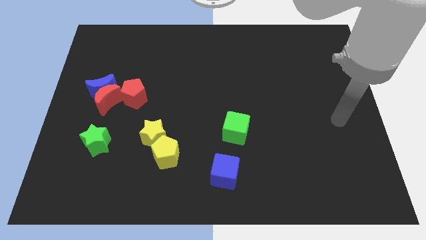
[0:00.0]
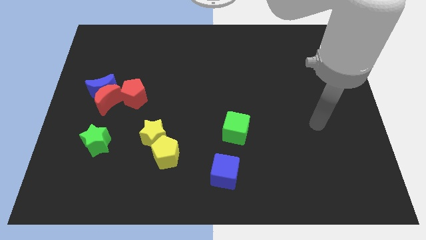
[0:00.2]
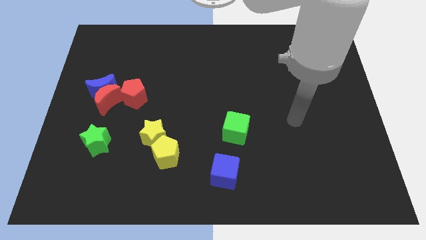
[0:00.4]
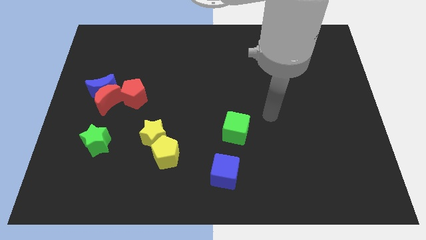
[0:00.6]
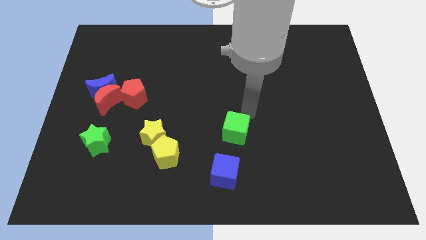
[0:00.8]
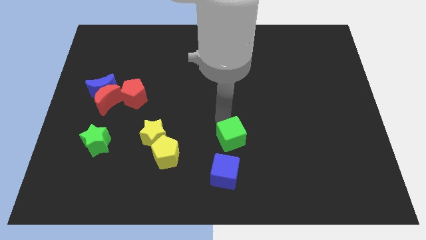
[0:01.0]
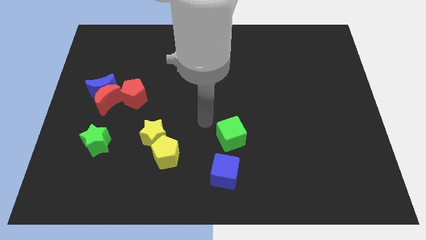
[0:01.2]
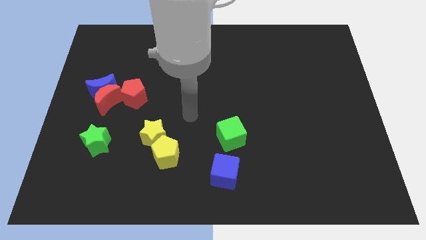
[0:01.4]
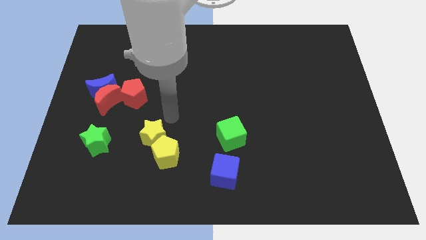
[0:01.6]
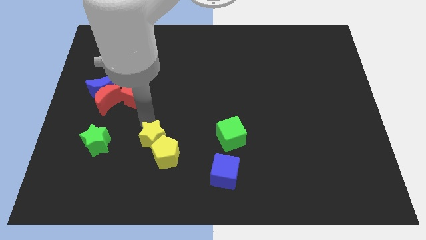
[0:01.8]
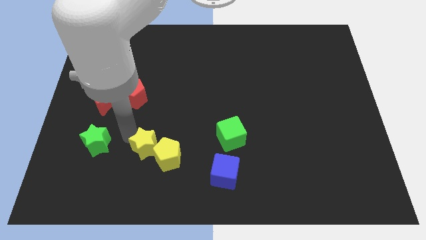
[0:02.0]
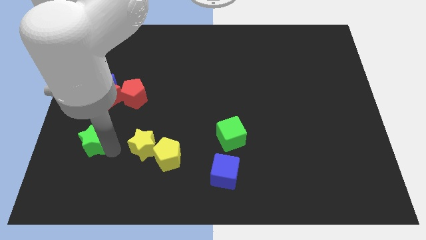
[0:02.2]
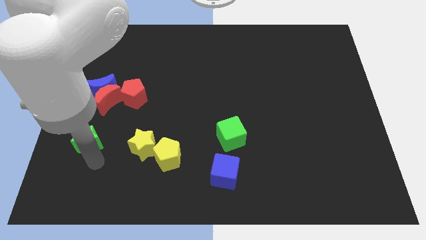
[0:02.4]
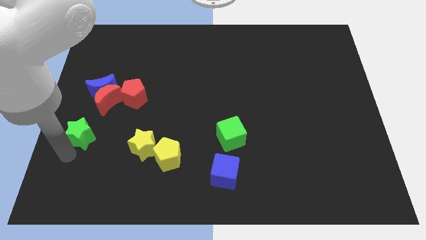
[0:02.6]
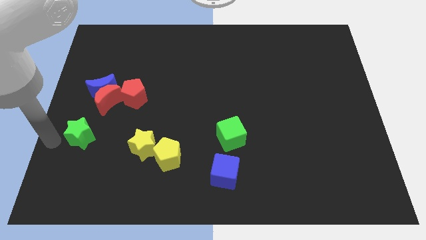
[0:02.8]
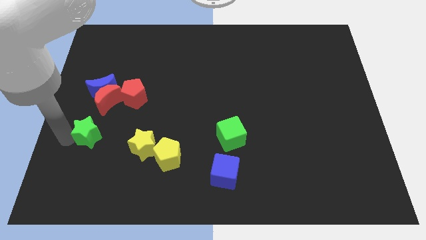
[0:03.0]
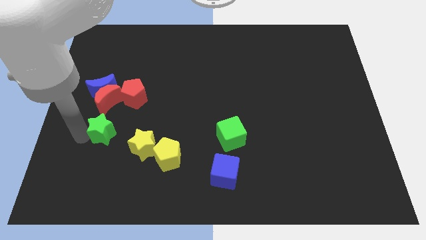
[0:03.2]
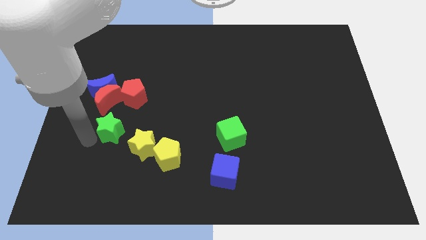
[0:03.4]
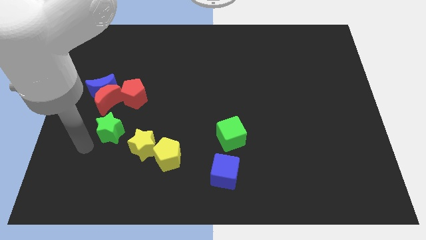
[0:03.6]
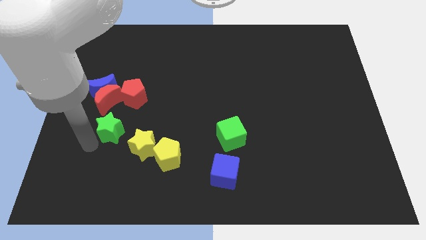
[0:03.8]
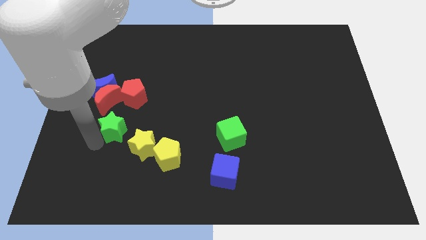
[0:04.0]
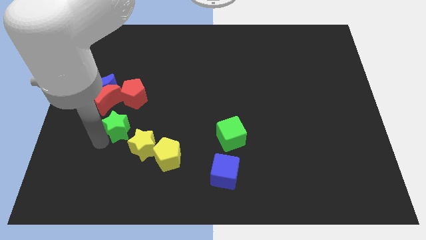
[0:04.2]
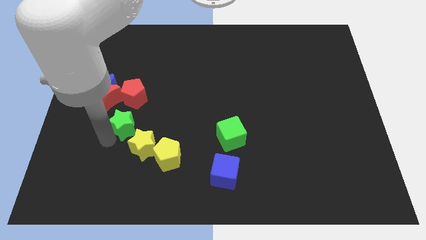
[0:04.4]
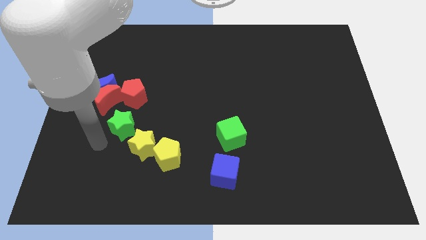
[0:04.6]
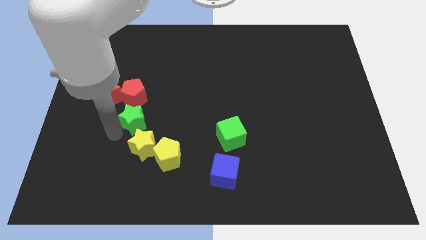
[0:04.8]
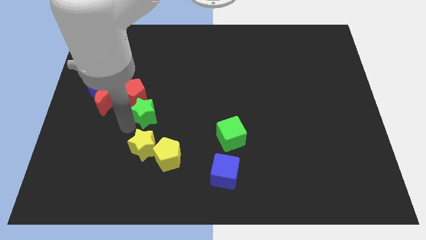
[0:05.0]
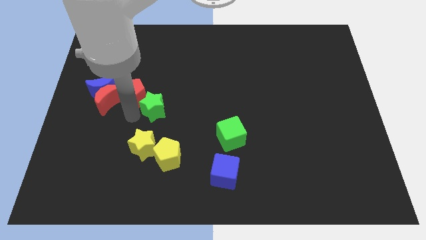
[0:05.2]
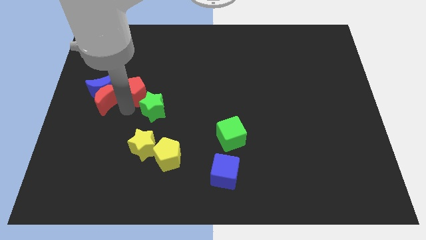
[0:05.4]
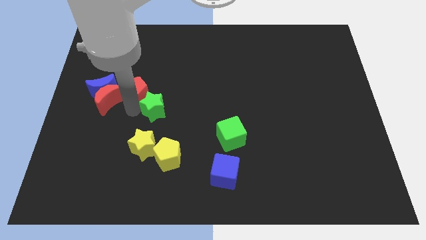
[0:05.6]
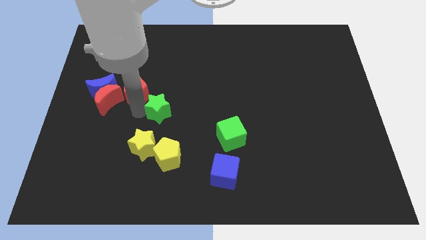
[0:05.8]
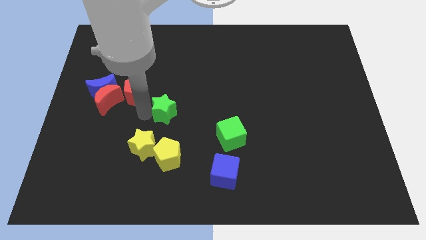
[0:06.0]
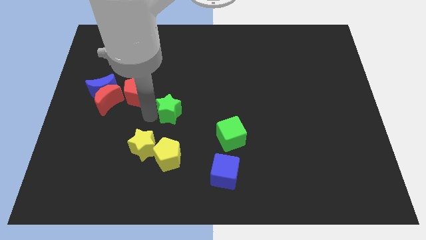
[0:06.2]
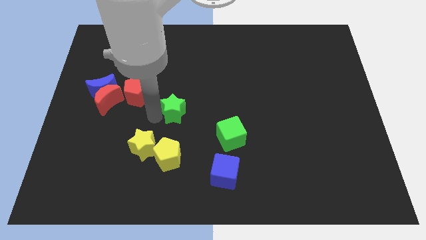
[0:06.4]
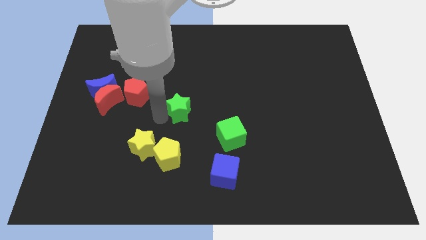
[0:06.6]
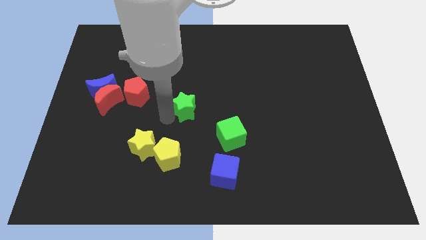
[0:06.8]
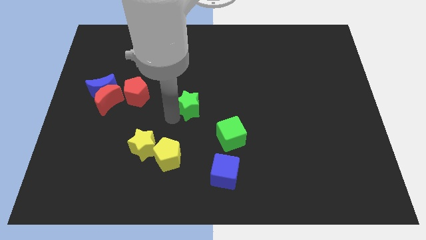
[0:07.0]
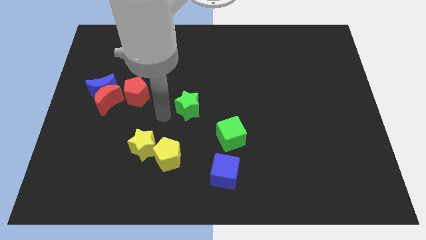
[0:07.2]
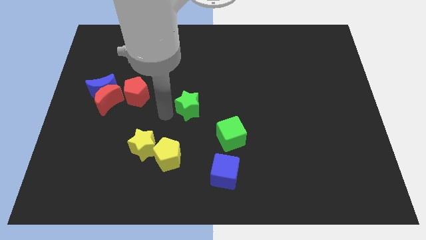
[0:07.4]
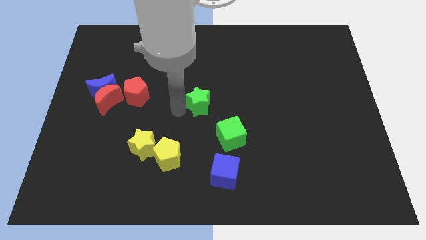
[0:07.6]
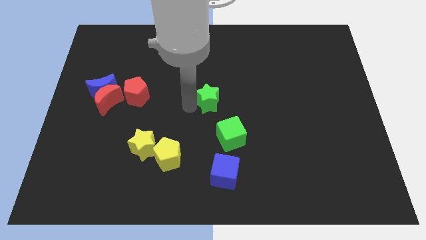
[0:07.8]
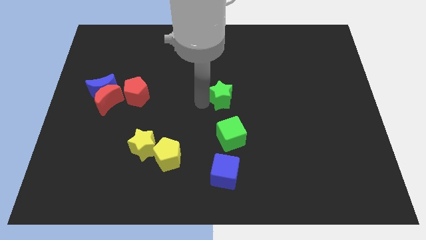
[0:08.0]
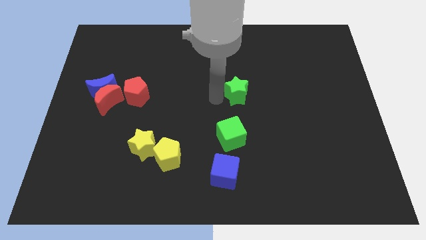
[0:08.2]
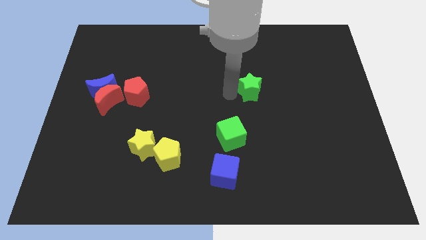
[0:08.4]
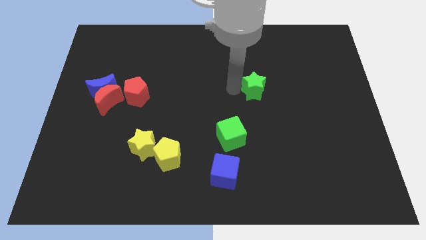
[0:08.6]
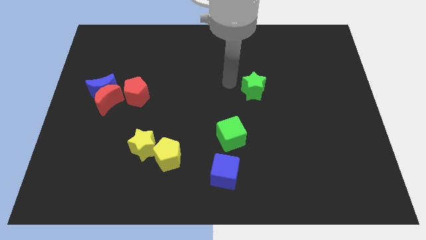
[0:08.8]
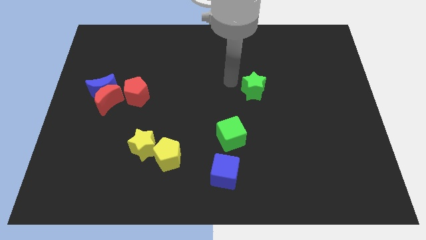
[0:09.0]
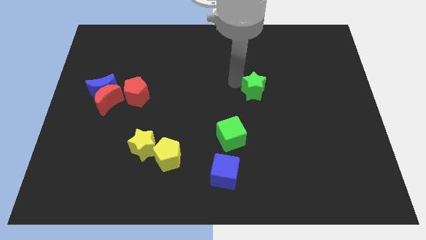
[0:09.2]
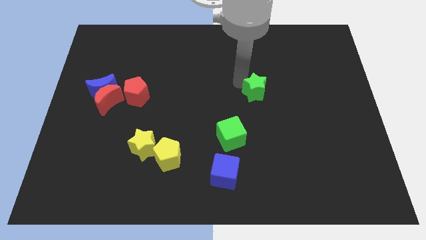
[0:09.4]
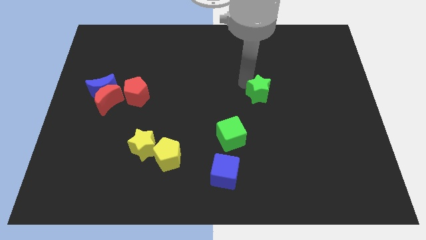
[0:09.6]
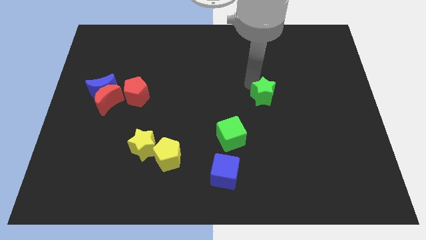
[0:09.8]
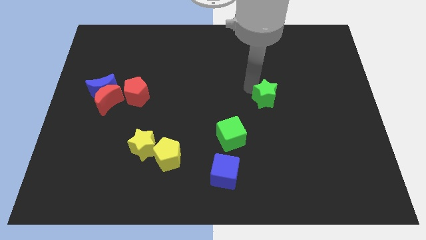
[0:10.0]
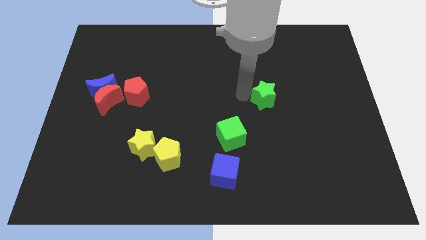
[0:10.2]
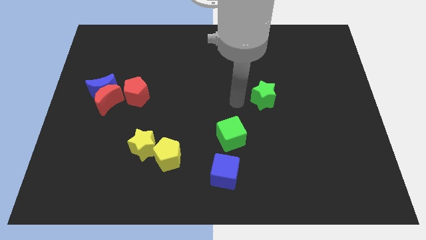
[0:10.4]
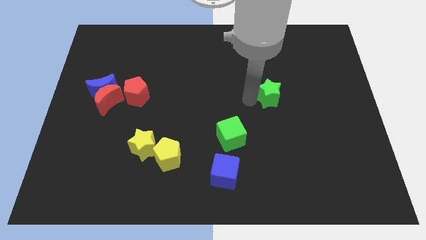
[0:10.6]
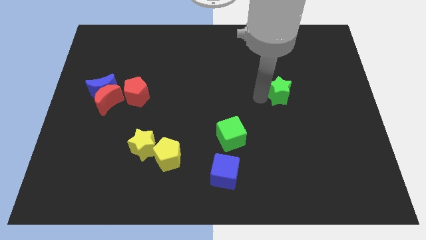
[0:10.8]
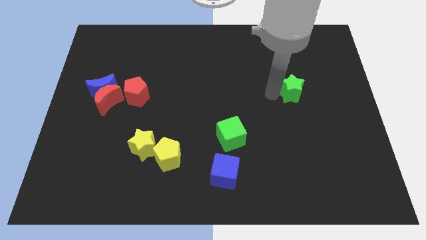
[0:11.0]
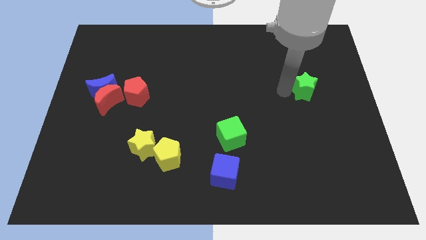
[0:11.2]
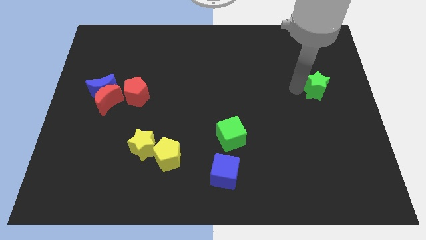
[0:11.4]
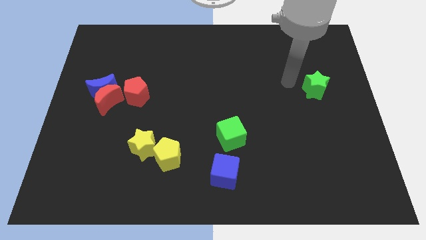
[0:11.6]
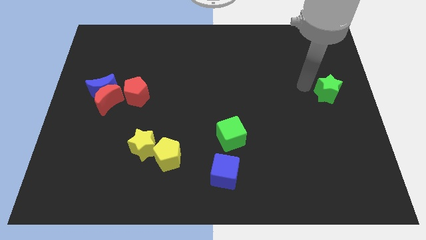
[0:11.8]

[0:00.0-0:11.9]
put the green star to the right side of the board
